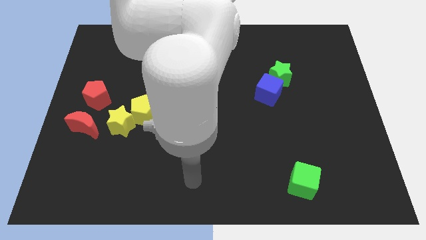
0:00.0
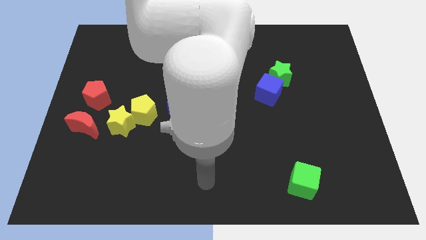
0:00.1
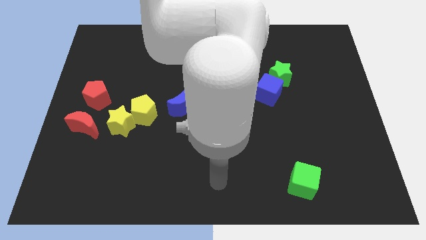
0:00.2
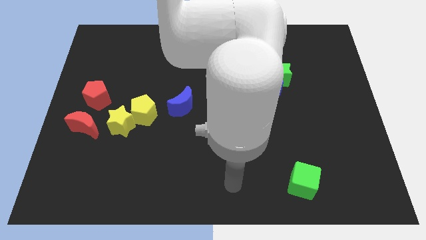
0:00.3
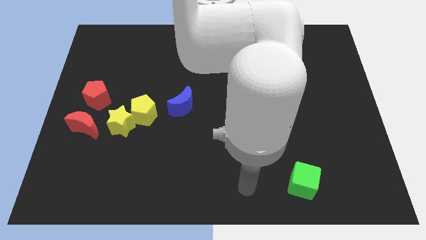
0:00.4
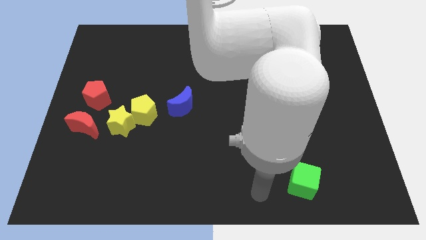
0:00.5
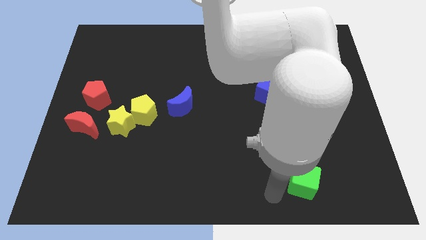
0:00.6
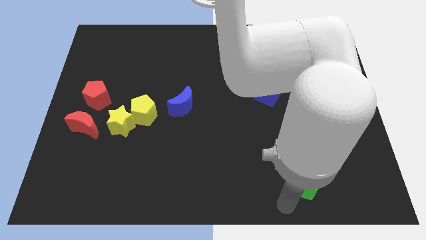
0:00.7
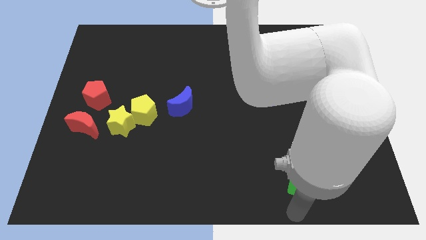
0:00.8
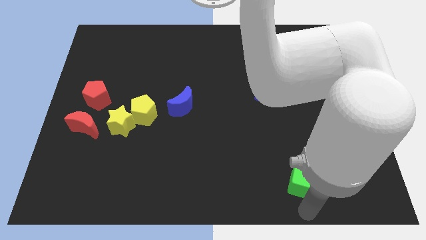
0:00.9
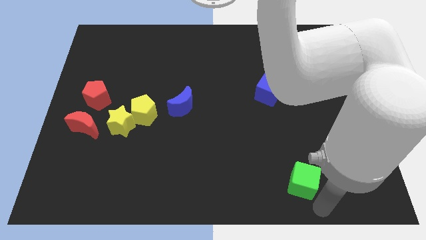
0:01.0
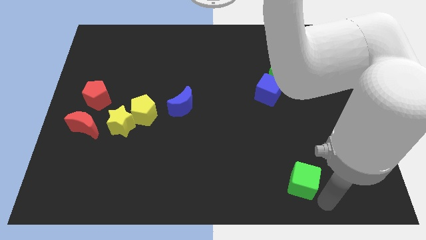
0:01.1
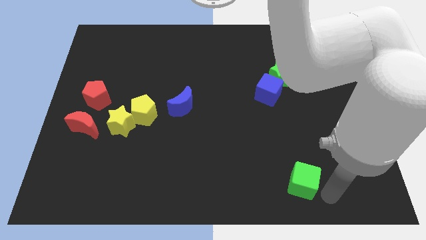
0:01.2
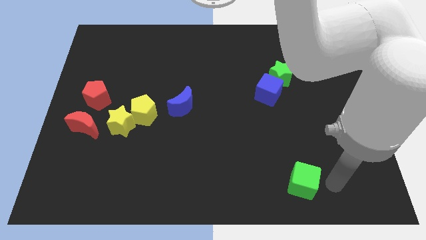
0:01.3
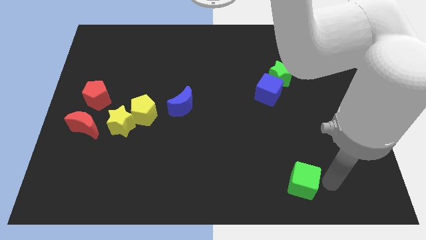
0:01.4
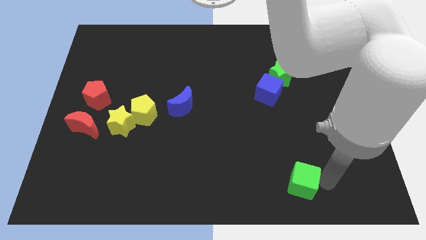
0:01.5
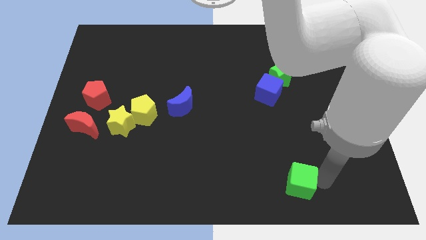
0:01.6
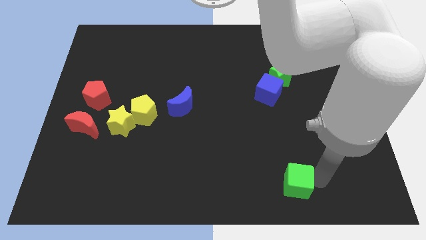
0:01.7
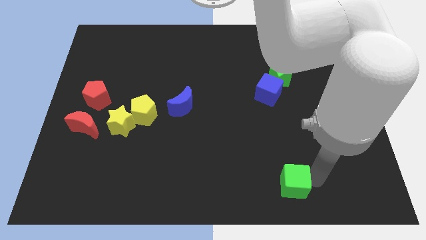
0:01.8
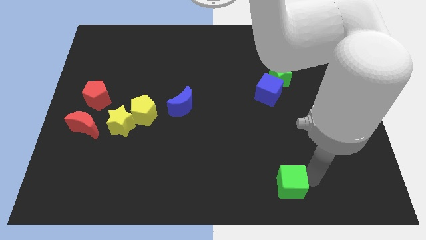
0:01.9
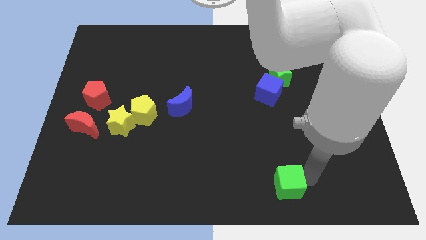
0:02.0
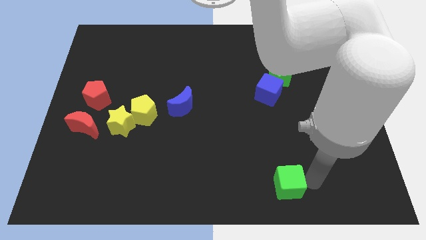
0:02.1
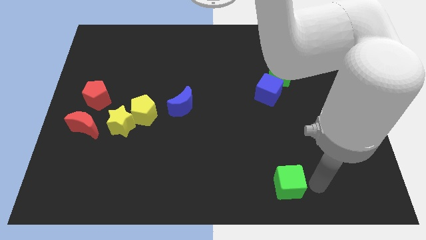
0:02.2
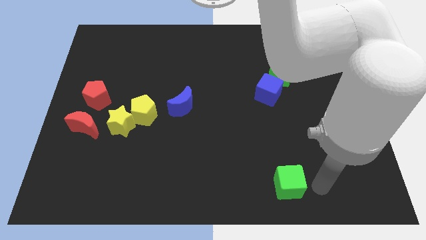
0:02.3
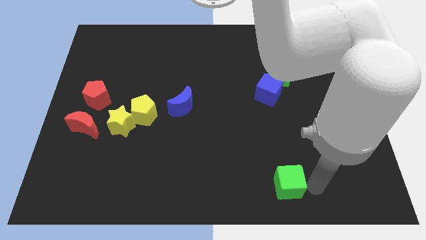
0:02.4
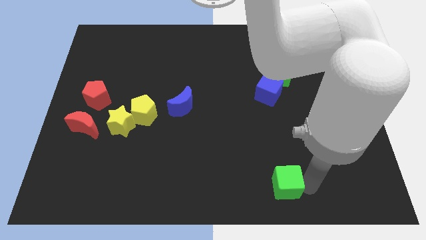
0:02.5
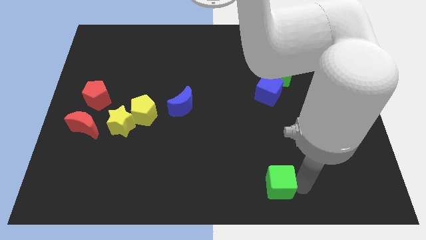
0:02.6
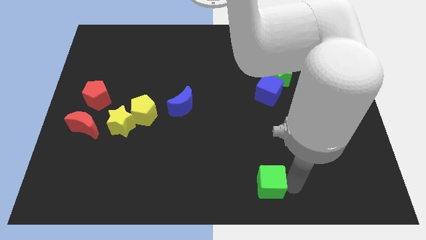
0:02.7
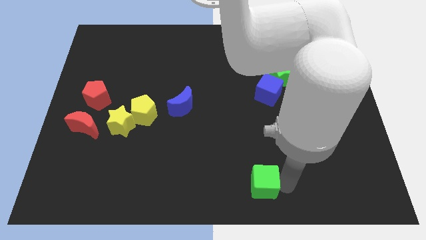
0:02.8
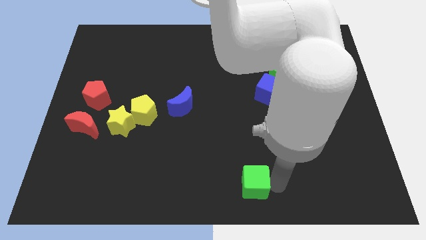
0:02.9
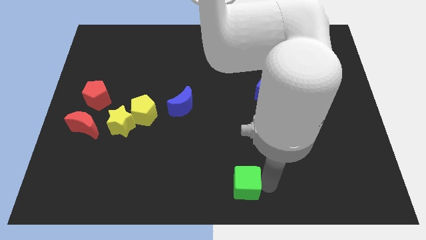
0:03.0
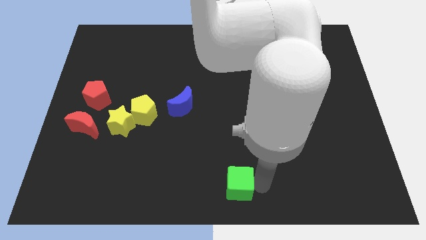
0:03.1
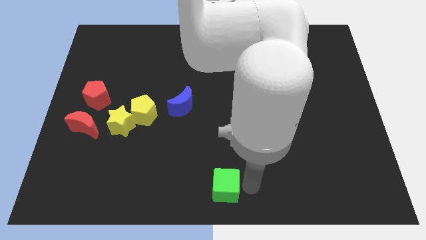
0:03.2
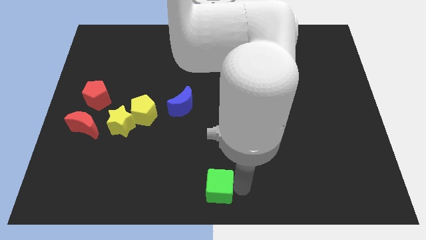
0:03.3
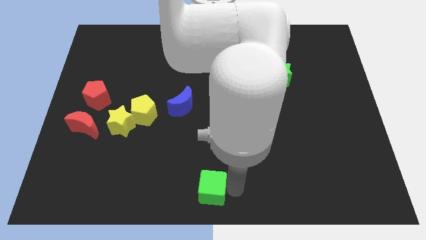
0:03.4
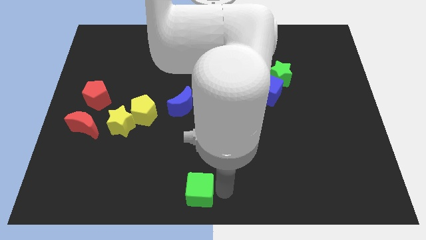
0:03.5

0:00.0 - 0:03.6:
slide the green cube left

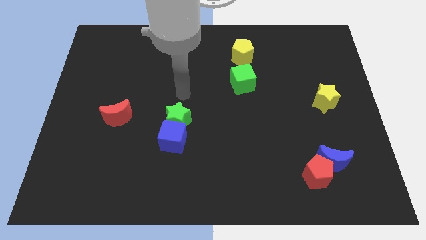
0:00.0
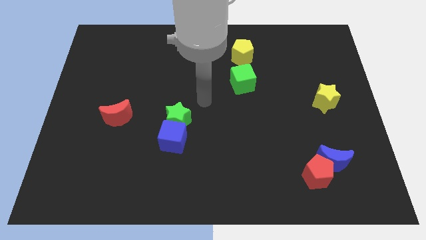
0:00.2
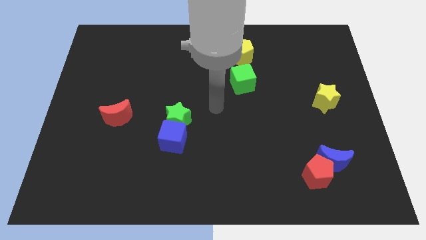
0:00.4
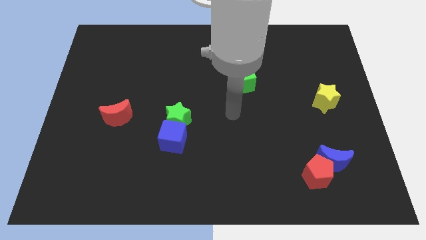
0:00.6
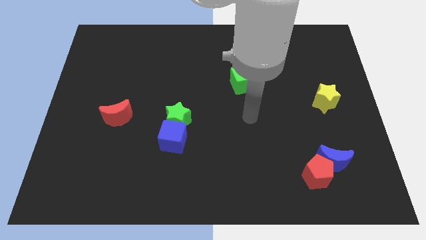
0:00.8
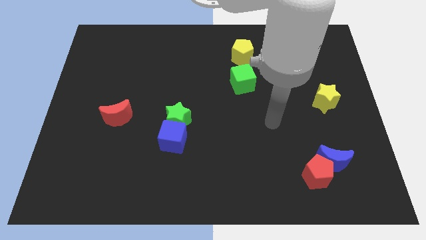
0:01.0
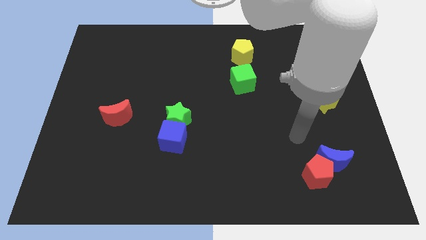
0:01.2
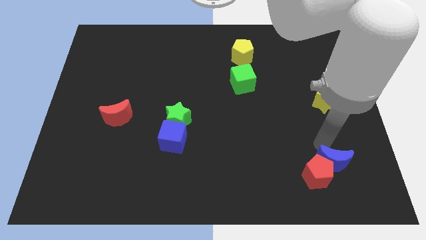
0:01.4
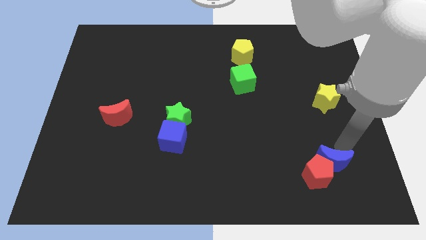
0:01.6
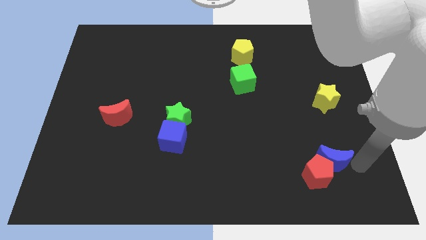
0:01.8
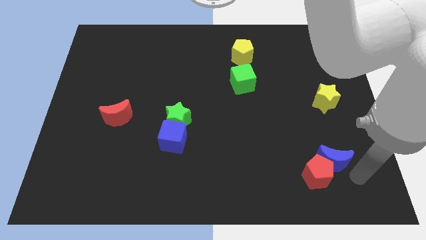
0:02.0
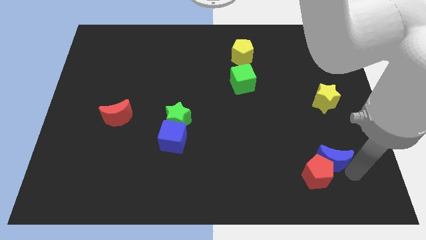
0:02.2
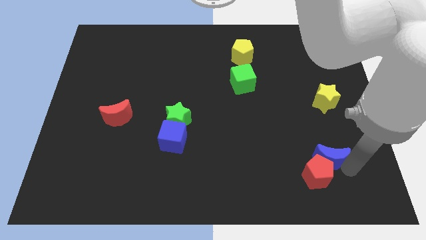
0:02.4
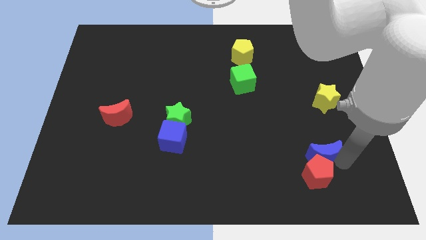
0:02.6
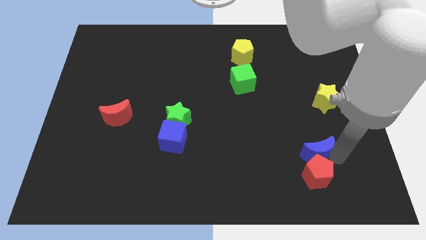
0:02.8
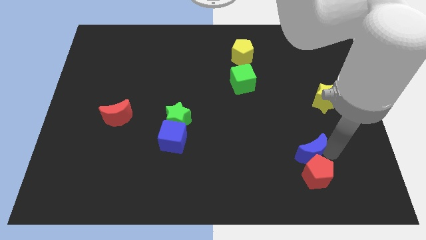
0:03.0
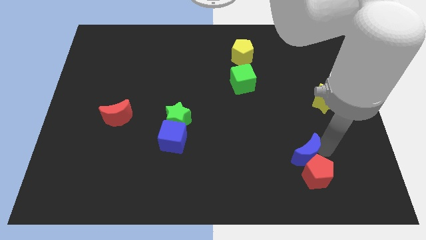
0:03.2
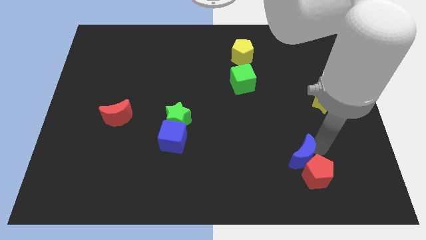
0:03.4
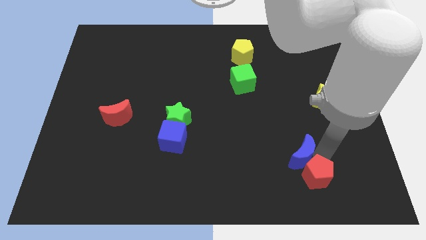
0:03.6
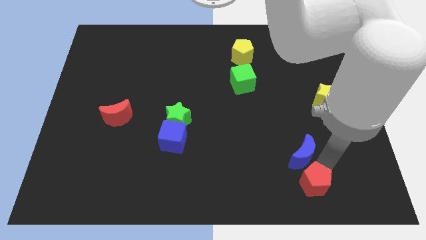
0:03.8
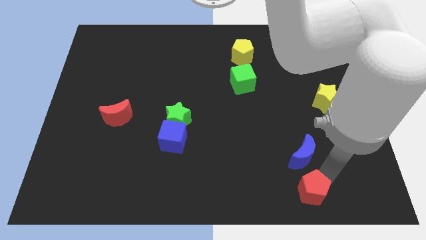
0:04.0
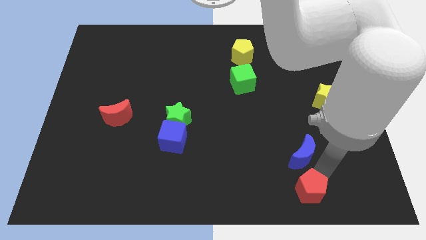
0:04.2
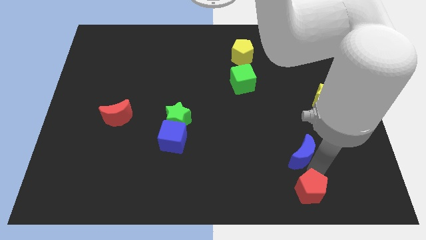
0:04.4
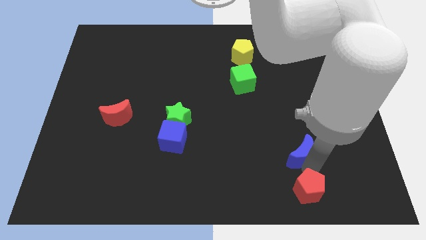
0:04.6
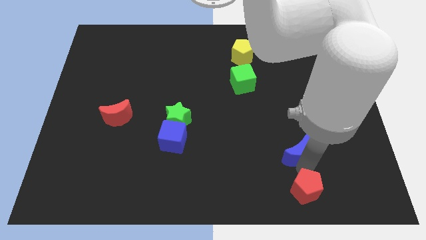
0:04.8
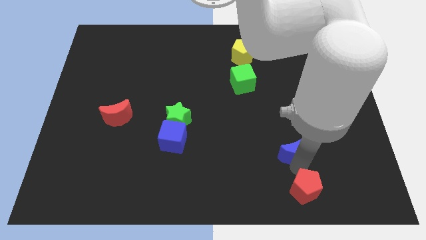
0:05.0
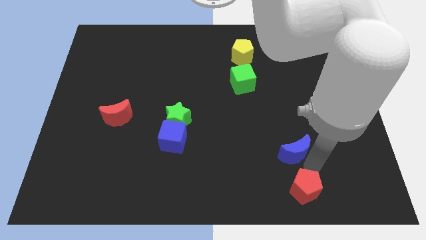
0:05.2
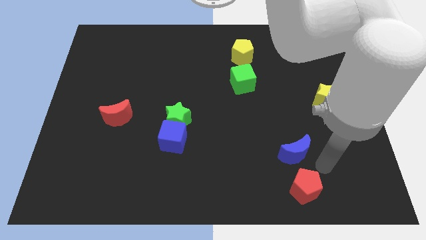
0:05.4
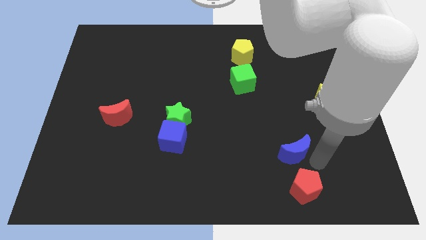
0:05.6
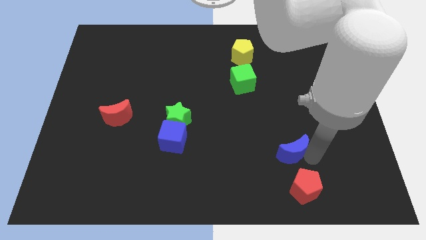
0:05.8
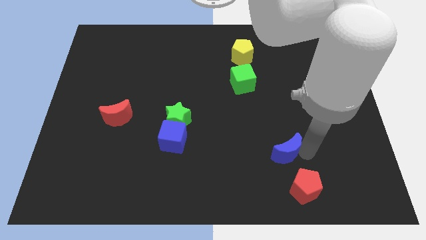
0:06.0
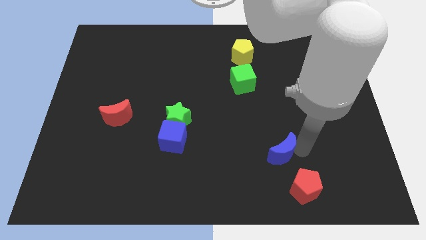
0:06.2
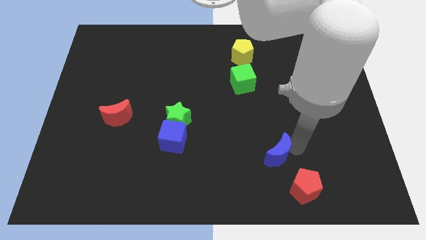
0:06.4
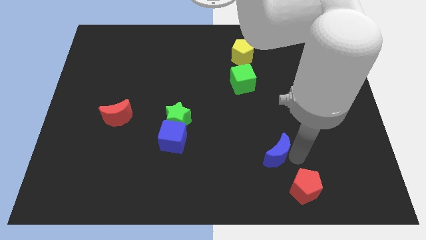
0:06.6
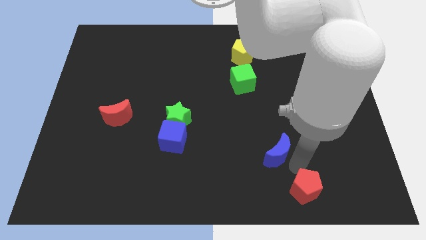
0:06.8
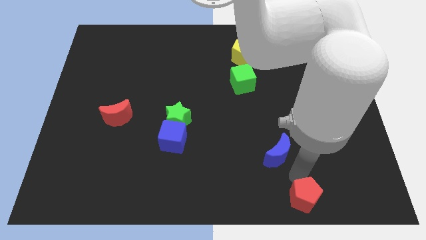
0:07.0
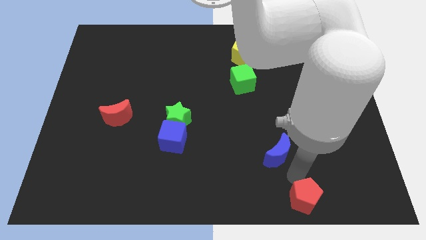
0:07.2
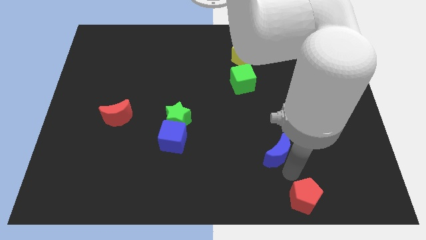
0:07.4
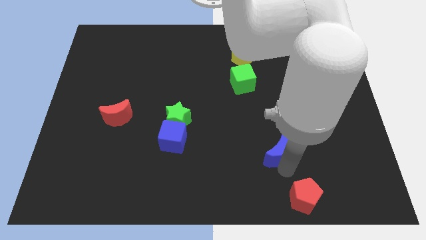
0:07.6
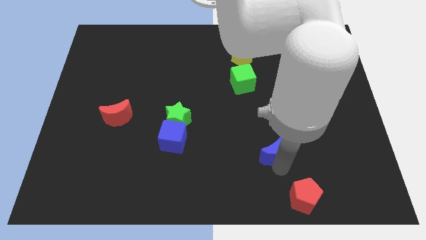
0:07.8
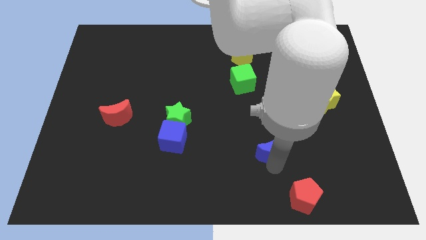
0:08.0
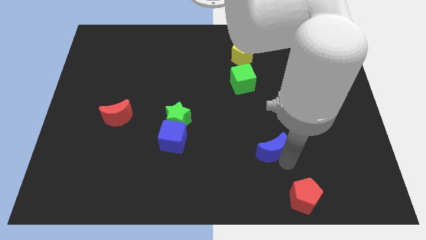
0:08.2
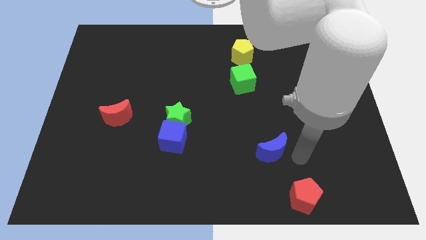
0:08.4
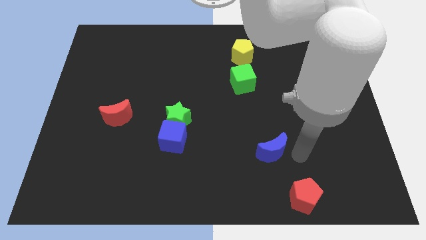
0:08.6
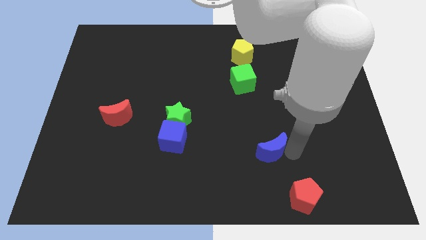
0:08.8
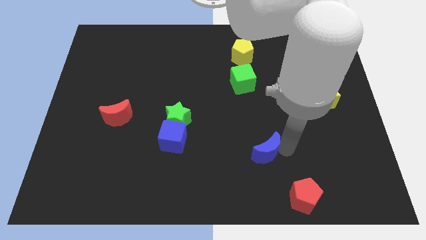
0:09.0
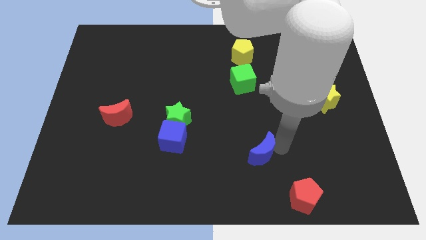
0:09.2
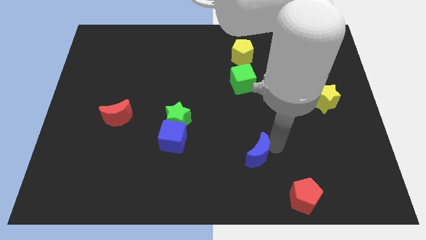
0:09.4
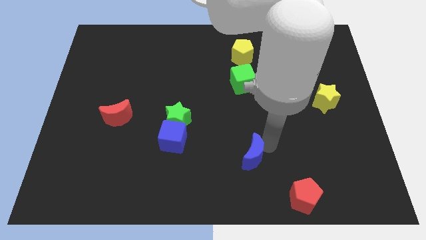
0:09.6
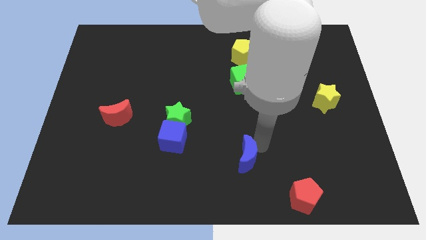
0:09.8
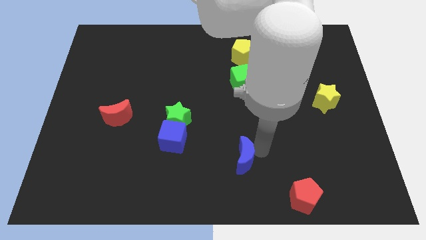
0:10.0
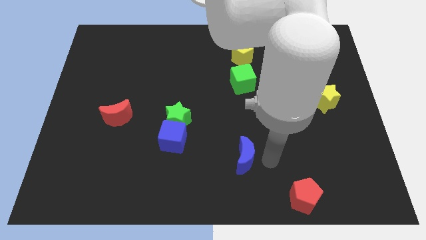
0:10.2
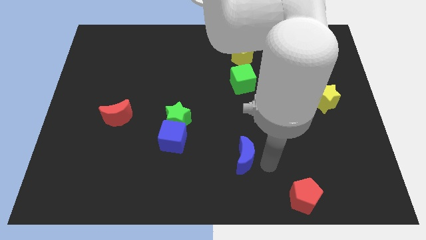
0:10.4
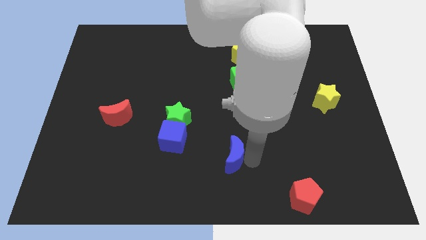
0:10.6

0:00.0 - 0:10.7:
slide the blue moon left
